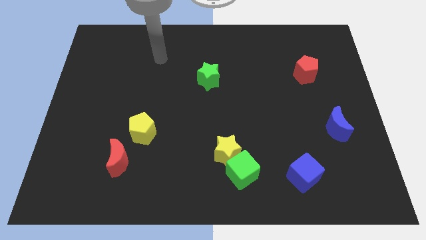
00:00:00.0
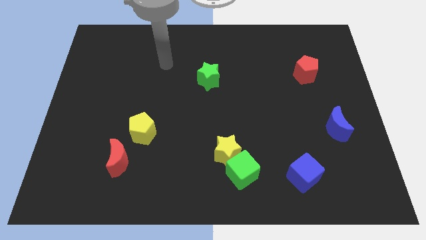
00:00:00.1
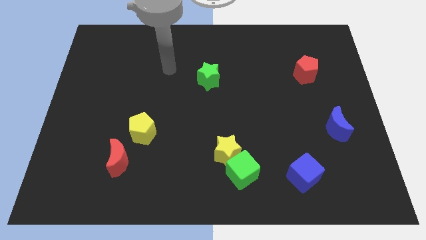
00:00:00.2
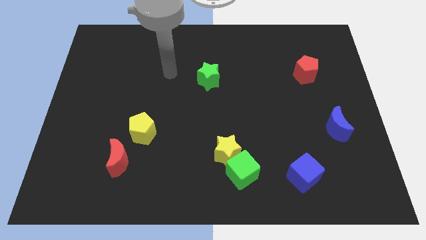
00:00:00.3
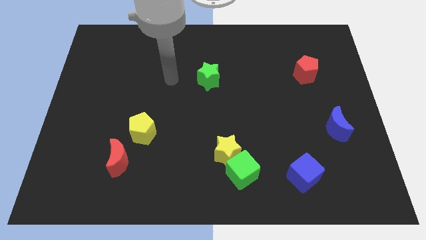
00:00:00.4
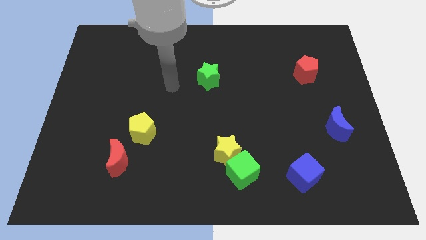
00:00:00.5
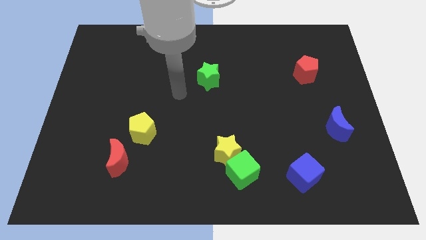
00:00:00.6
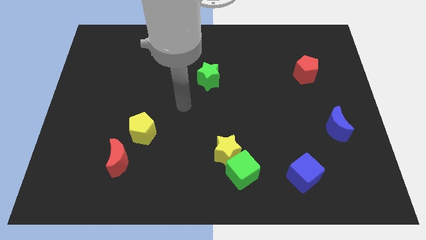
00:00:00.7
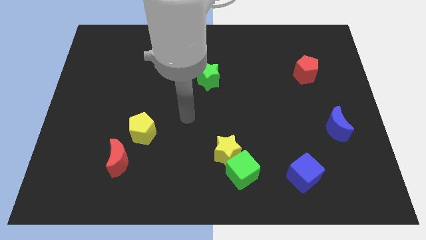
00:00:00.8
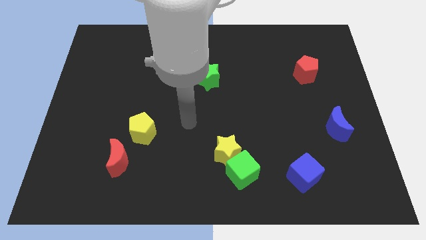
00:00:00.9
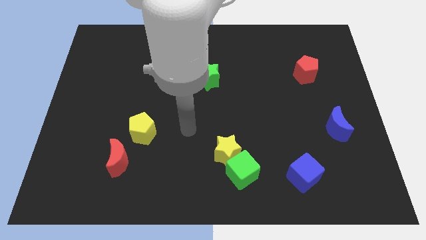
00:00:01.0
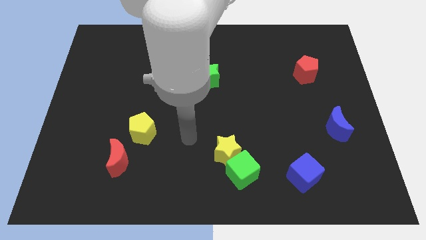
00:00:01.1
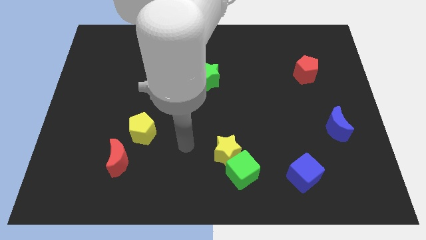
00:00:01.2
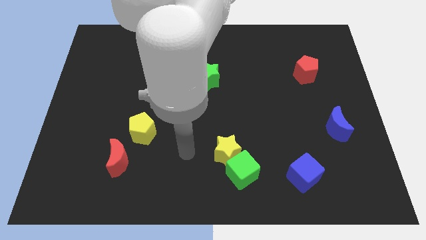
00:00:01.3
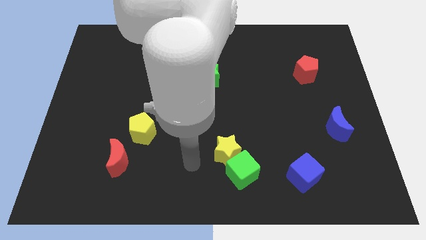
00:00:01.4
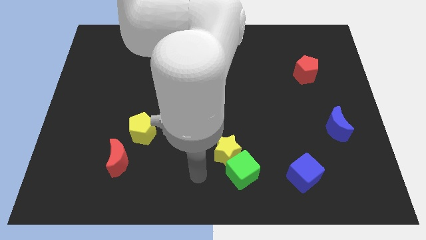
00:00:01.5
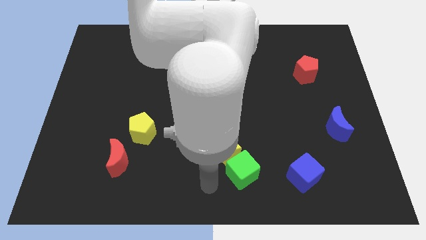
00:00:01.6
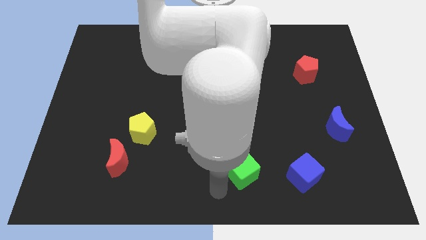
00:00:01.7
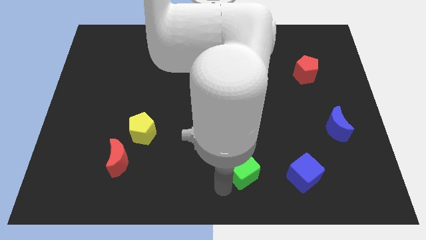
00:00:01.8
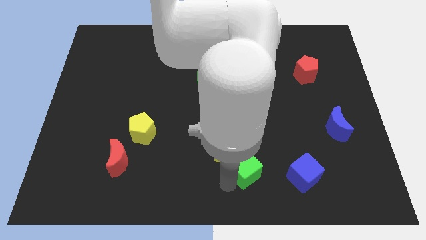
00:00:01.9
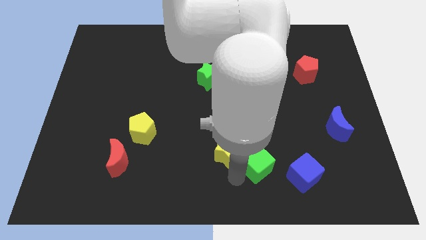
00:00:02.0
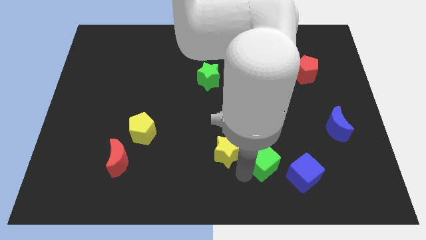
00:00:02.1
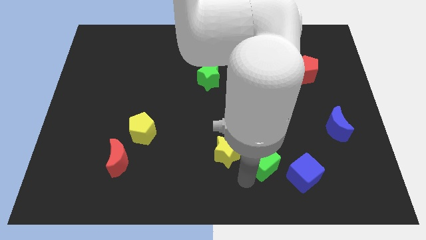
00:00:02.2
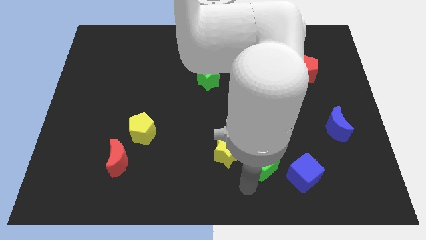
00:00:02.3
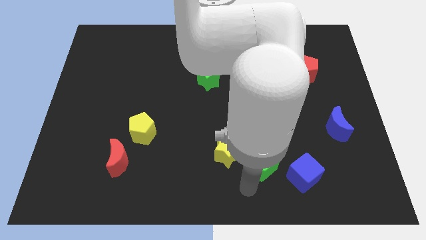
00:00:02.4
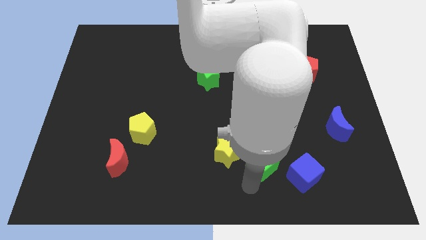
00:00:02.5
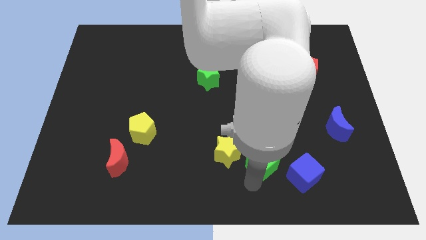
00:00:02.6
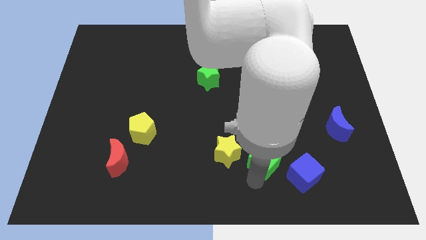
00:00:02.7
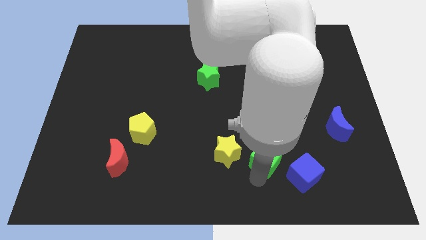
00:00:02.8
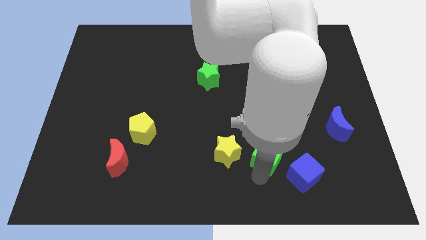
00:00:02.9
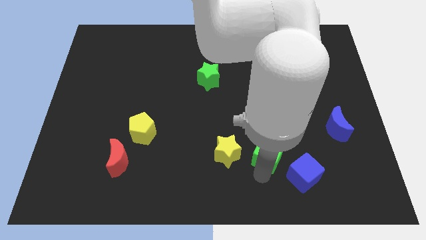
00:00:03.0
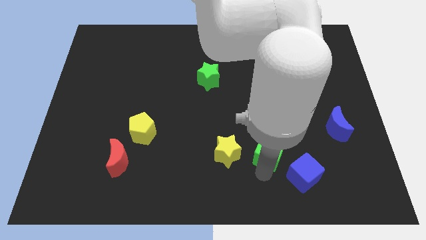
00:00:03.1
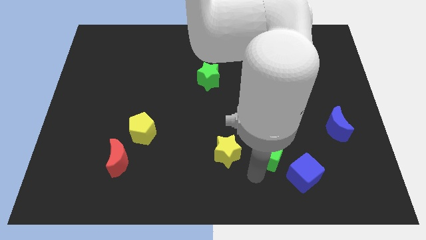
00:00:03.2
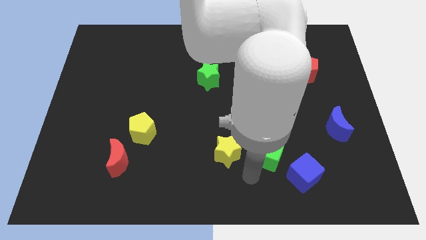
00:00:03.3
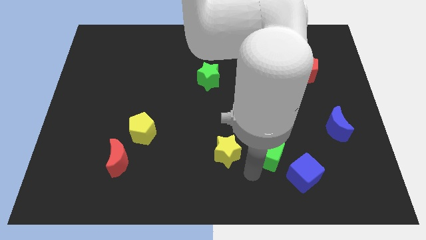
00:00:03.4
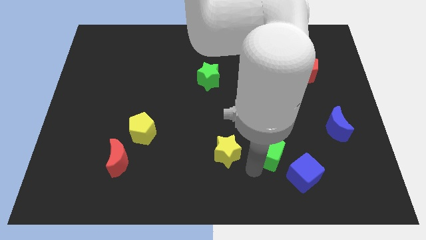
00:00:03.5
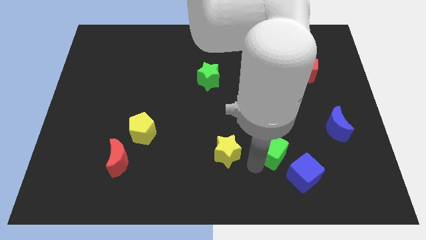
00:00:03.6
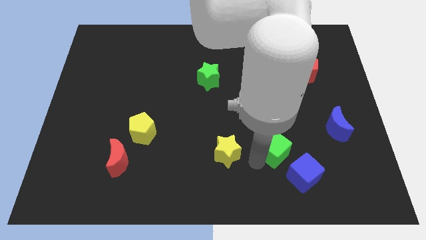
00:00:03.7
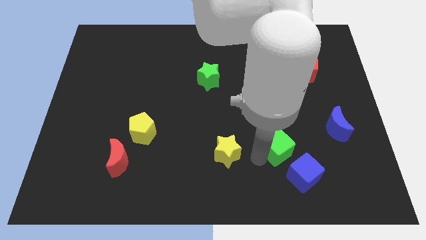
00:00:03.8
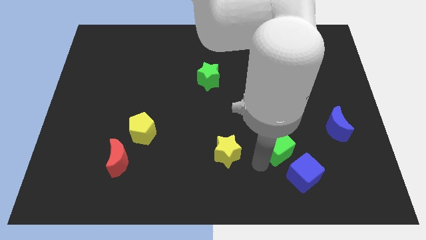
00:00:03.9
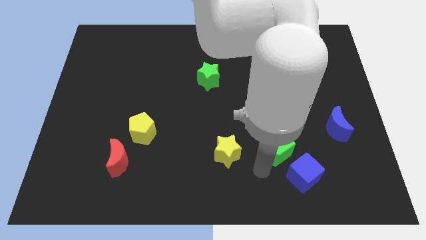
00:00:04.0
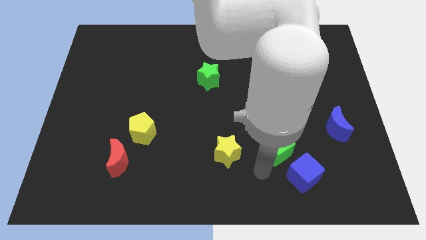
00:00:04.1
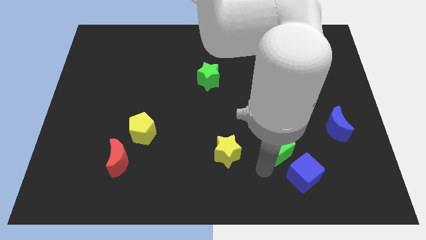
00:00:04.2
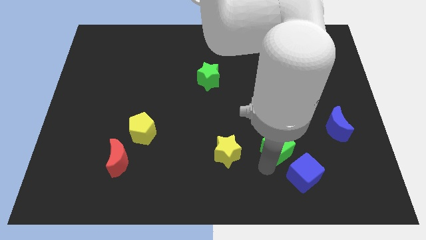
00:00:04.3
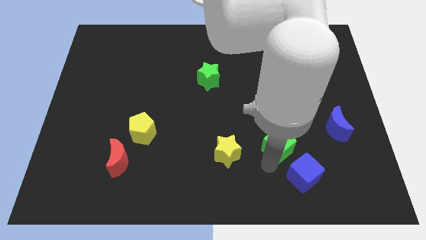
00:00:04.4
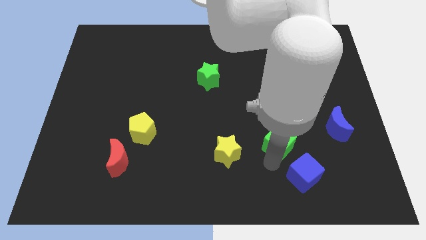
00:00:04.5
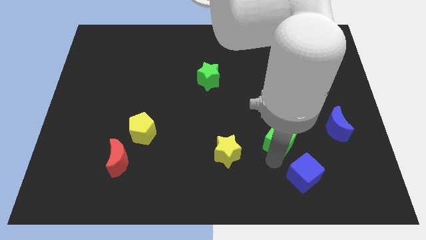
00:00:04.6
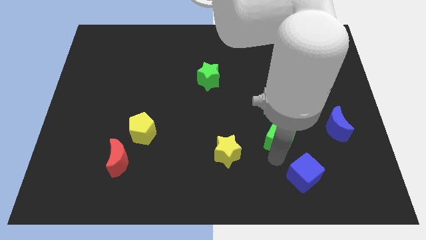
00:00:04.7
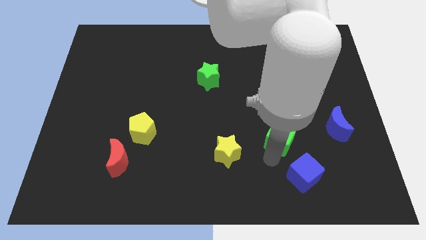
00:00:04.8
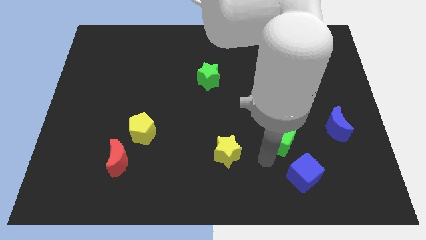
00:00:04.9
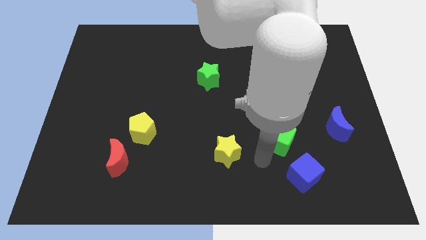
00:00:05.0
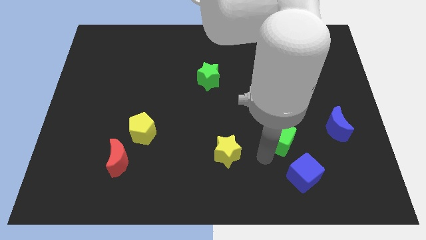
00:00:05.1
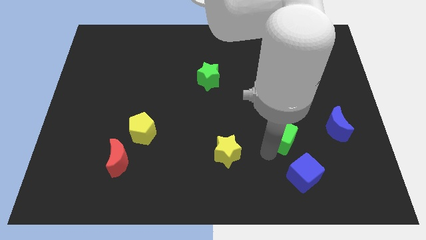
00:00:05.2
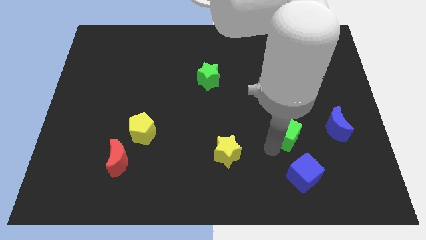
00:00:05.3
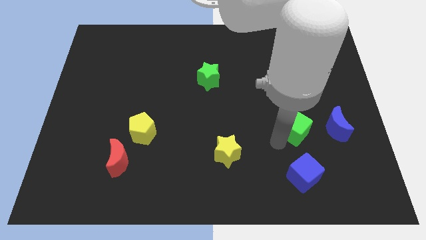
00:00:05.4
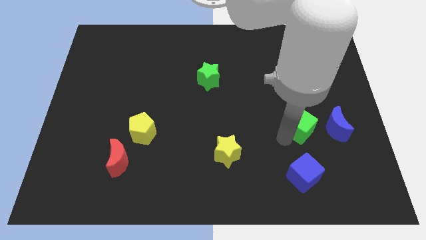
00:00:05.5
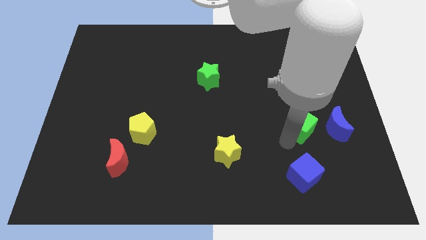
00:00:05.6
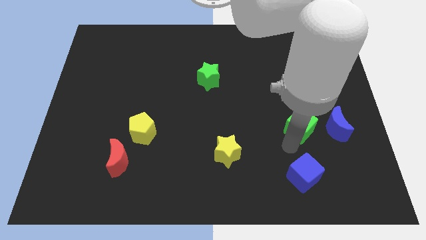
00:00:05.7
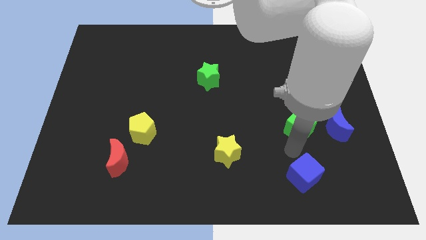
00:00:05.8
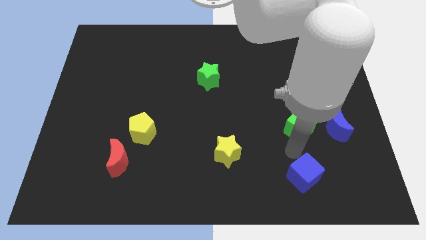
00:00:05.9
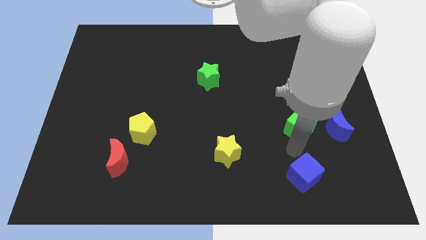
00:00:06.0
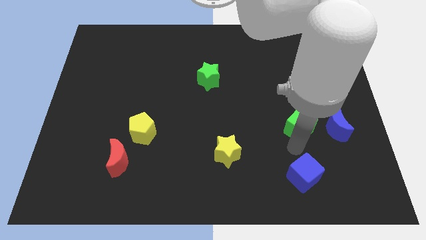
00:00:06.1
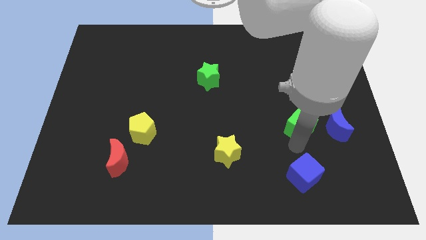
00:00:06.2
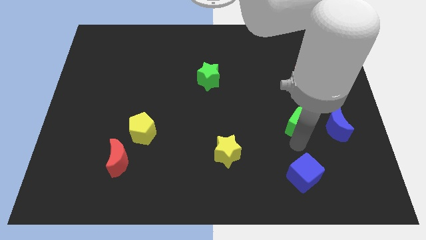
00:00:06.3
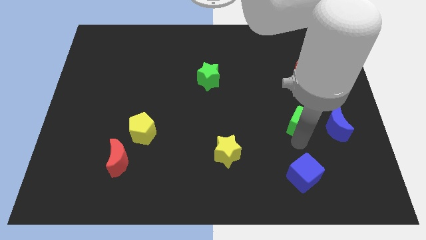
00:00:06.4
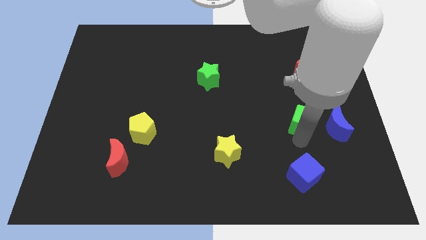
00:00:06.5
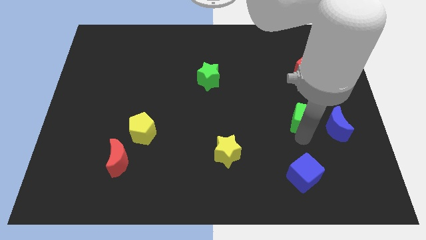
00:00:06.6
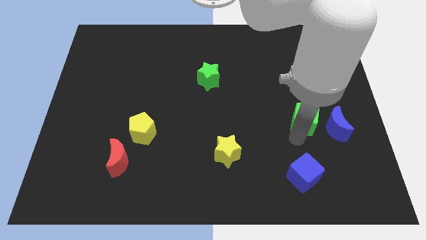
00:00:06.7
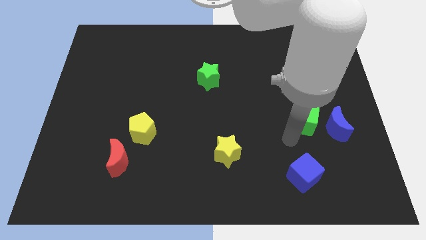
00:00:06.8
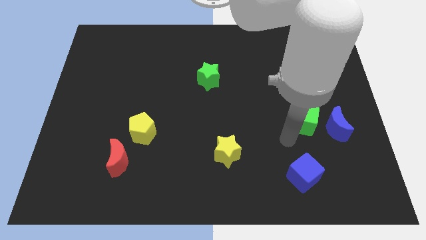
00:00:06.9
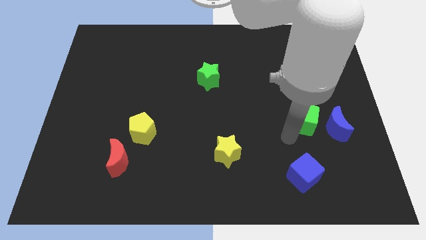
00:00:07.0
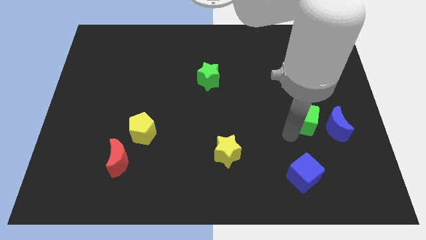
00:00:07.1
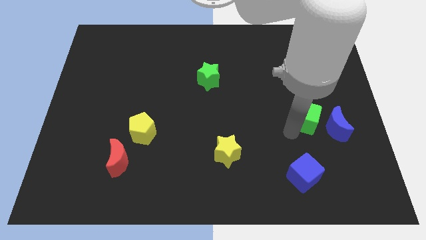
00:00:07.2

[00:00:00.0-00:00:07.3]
slide the green cube up and then right

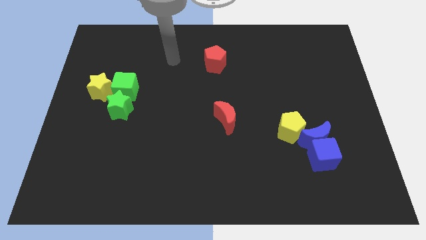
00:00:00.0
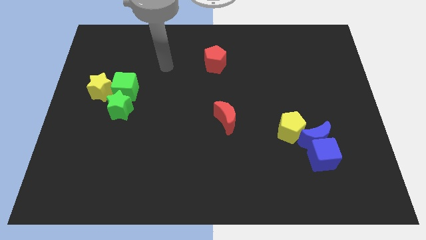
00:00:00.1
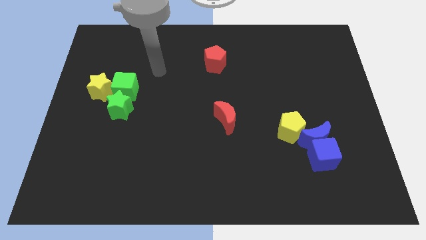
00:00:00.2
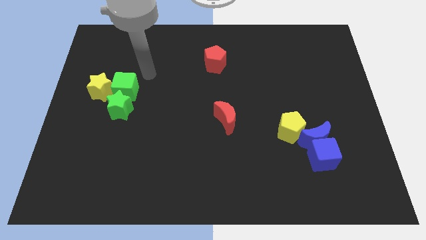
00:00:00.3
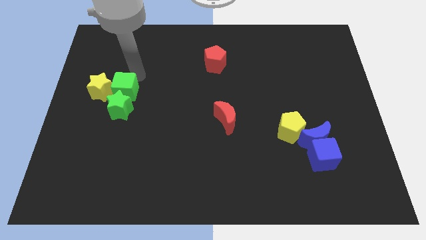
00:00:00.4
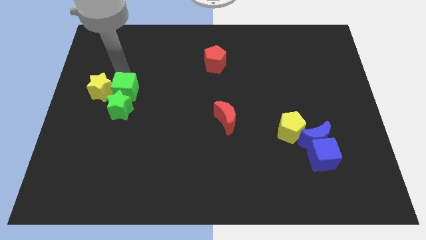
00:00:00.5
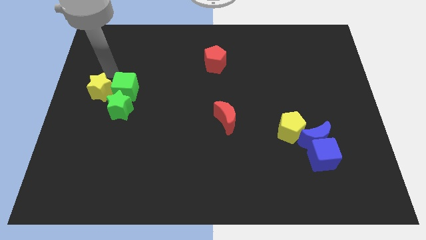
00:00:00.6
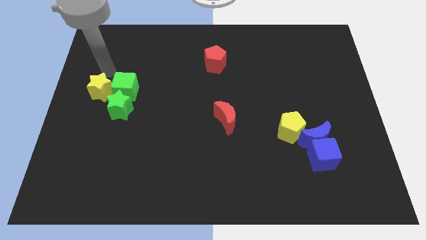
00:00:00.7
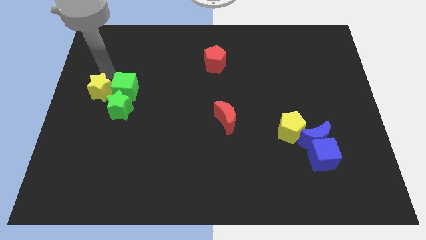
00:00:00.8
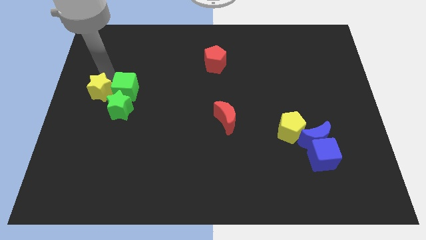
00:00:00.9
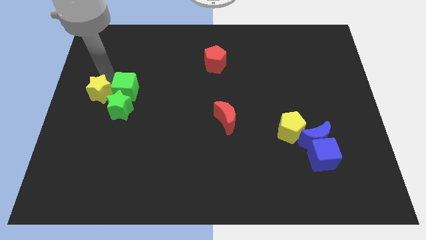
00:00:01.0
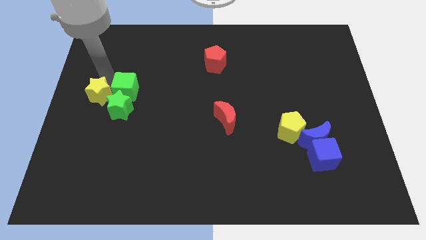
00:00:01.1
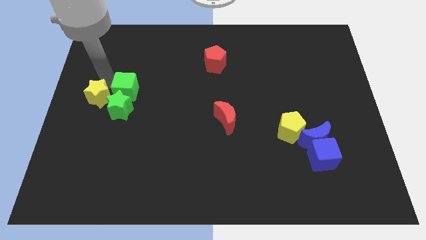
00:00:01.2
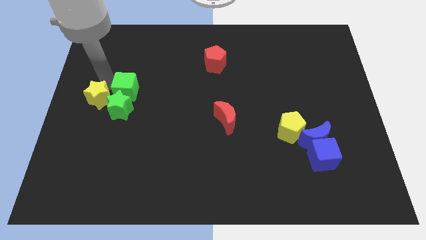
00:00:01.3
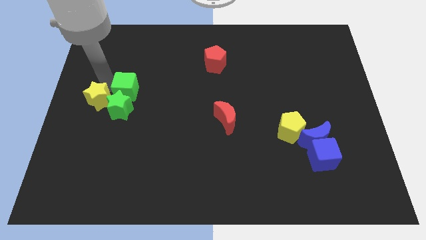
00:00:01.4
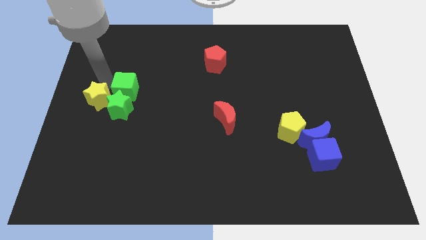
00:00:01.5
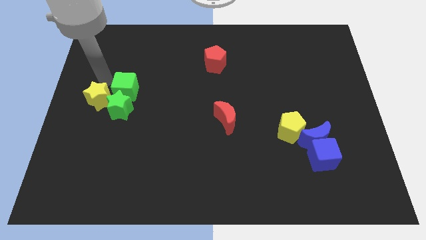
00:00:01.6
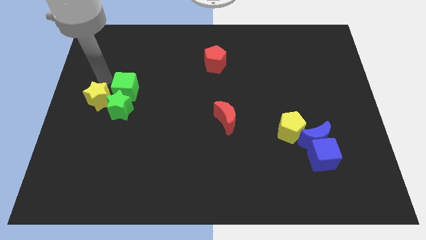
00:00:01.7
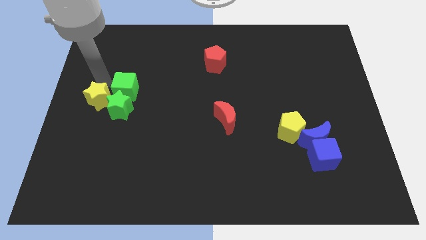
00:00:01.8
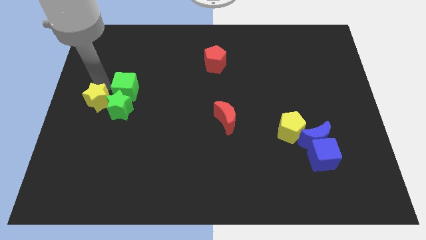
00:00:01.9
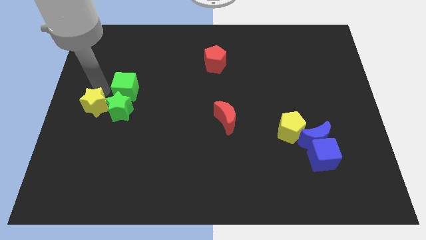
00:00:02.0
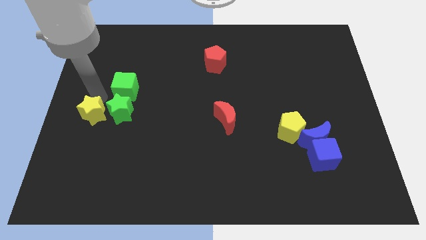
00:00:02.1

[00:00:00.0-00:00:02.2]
push the yellow star down a little
